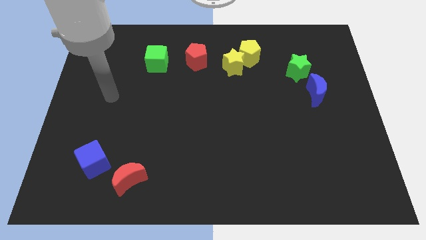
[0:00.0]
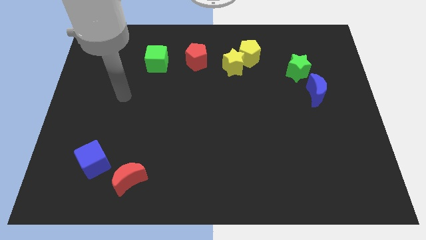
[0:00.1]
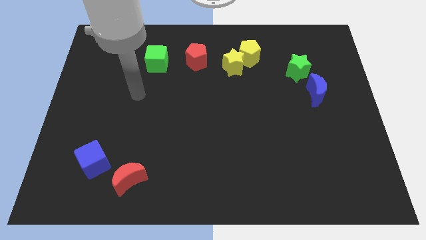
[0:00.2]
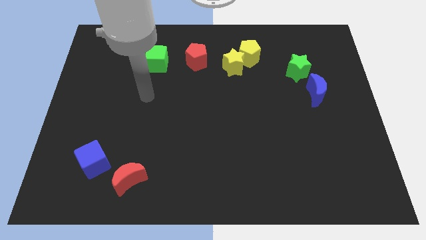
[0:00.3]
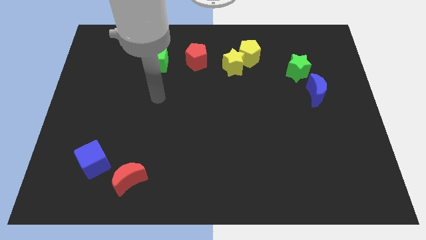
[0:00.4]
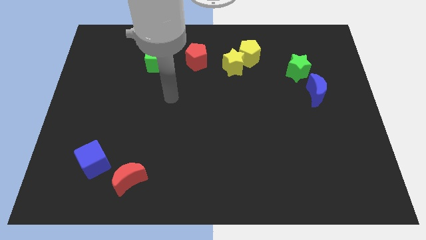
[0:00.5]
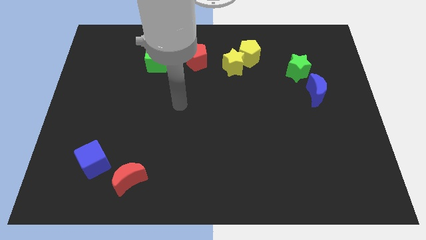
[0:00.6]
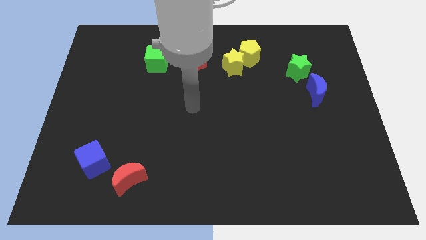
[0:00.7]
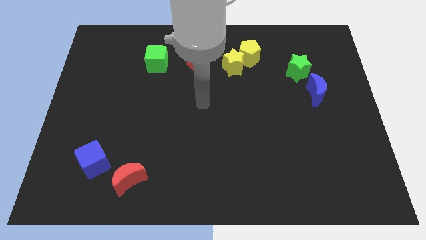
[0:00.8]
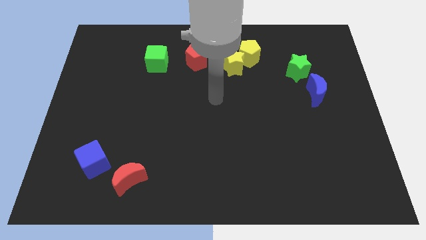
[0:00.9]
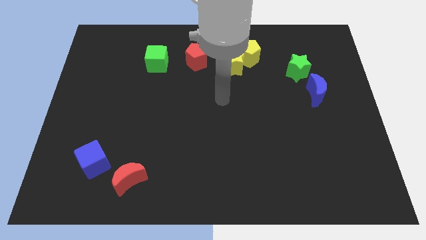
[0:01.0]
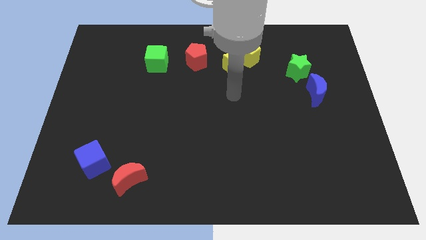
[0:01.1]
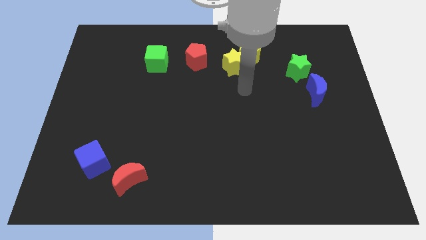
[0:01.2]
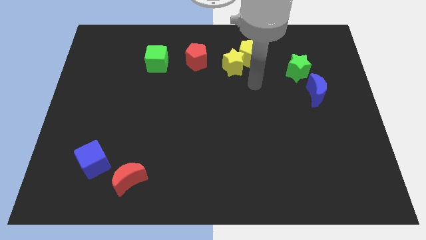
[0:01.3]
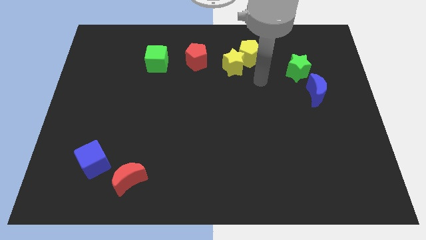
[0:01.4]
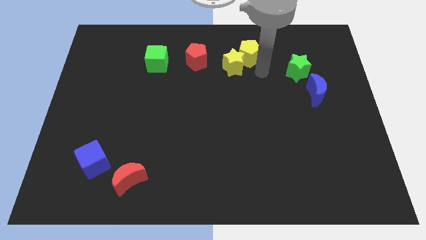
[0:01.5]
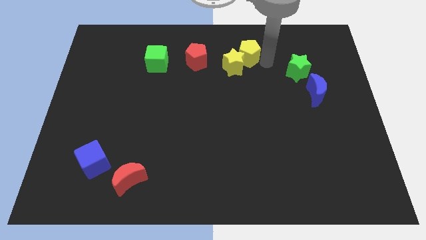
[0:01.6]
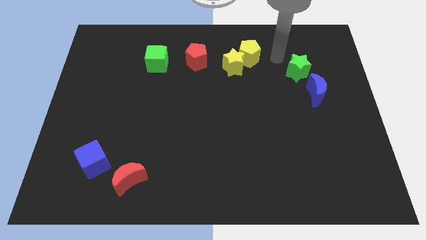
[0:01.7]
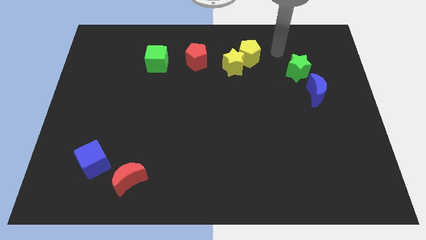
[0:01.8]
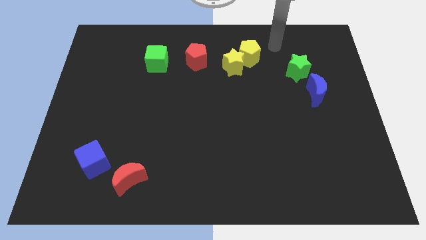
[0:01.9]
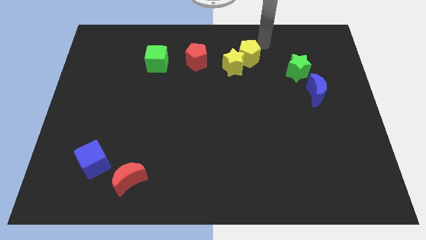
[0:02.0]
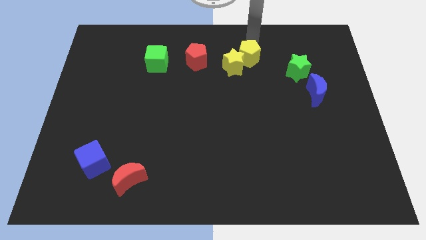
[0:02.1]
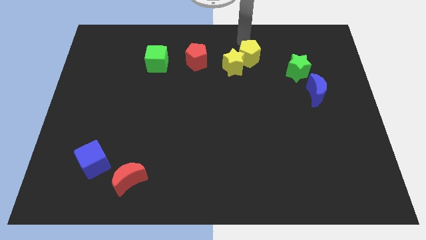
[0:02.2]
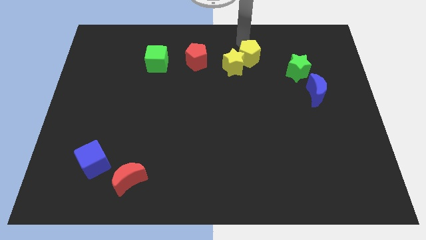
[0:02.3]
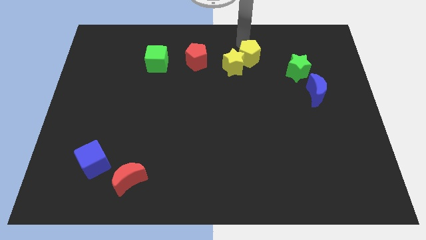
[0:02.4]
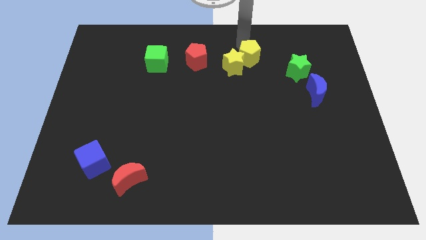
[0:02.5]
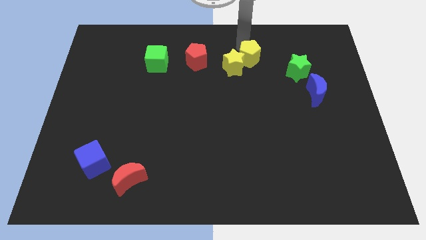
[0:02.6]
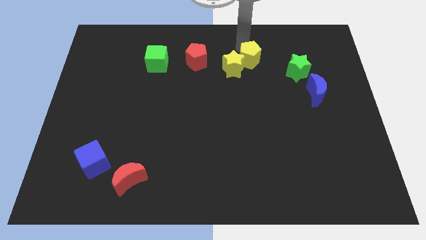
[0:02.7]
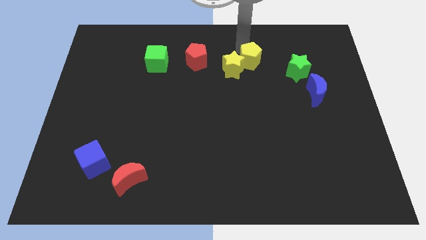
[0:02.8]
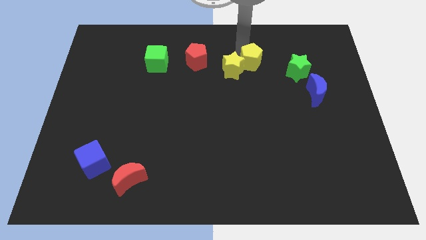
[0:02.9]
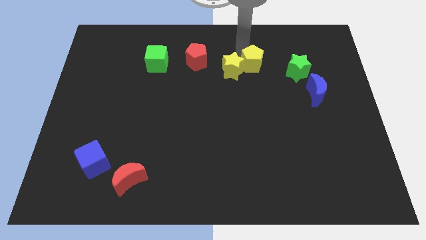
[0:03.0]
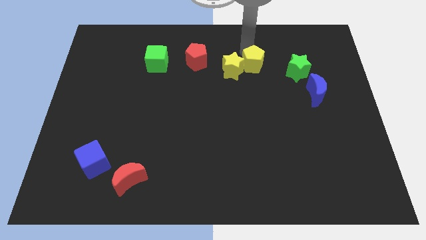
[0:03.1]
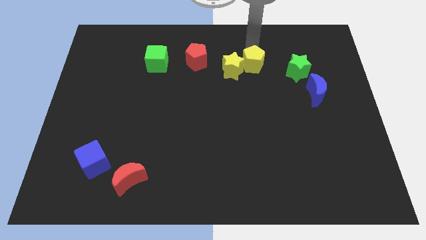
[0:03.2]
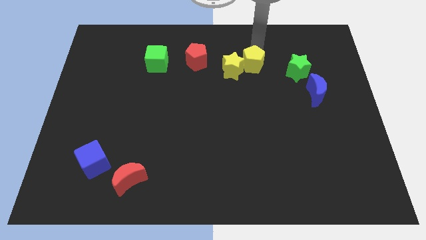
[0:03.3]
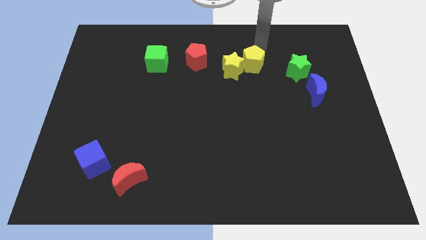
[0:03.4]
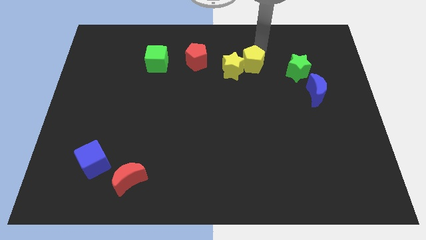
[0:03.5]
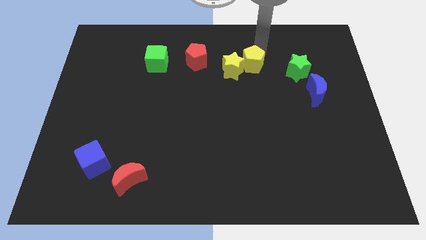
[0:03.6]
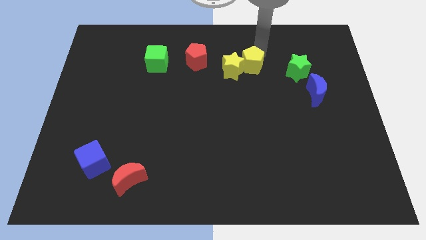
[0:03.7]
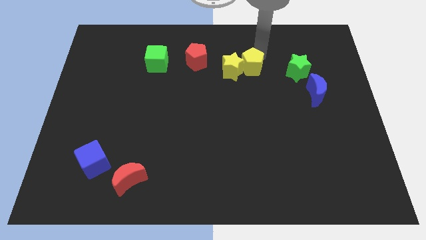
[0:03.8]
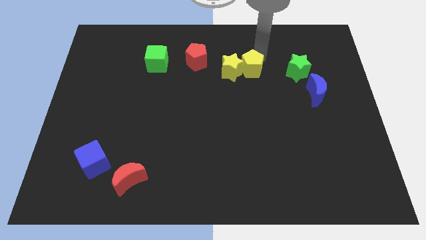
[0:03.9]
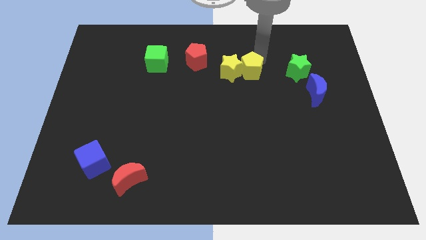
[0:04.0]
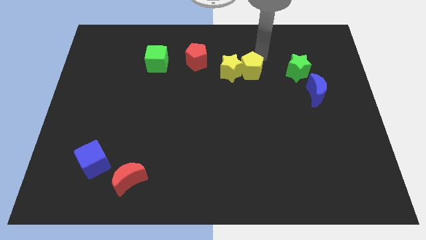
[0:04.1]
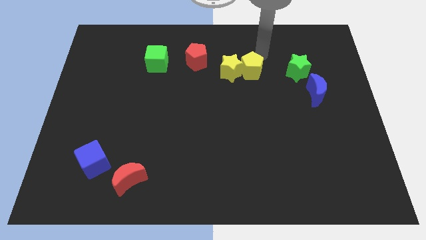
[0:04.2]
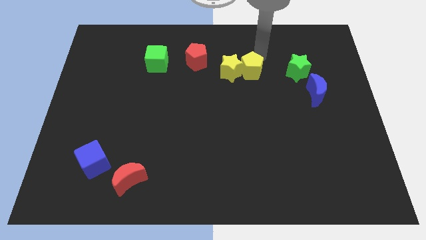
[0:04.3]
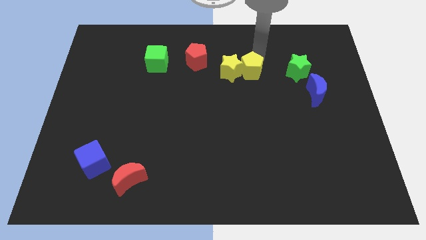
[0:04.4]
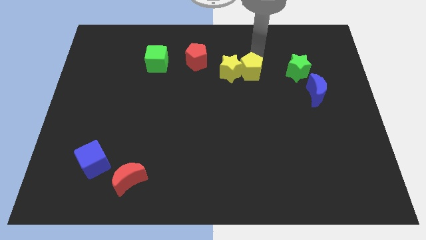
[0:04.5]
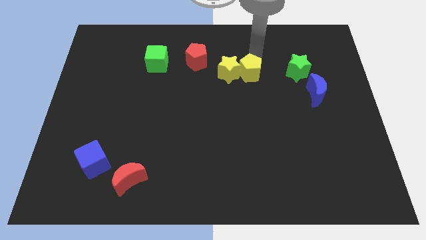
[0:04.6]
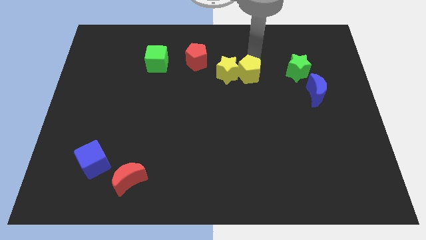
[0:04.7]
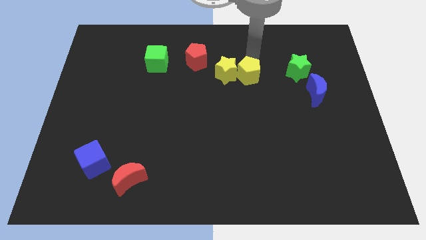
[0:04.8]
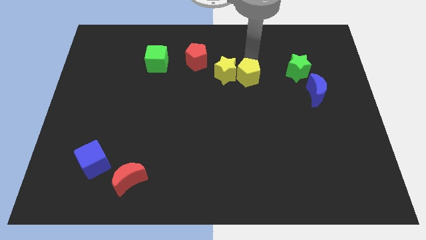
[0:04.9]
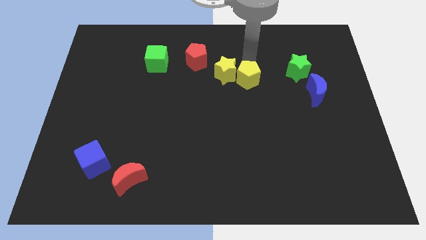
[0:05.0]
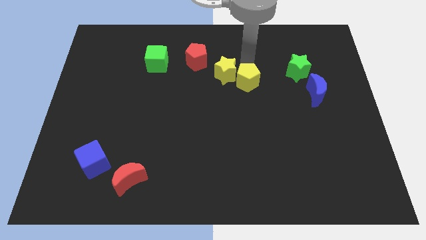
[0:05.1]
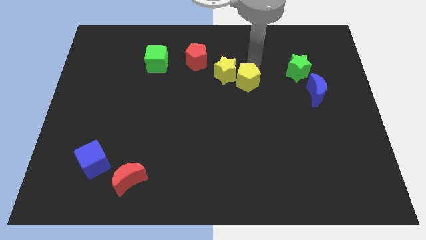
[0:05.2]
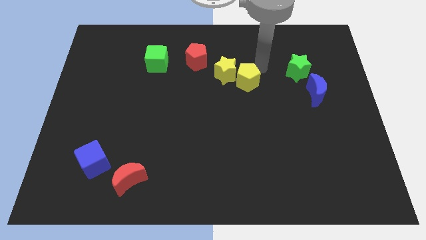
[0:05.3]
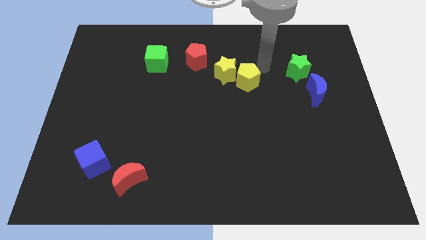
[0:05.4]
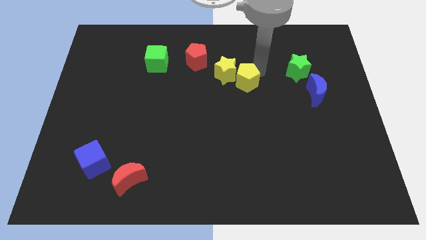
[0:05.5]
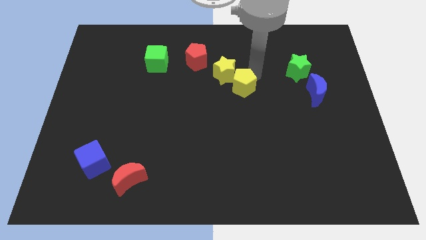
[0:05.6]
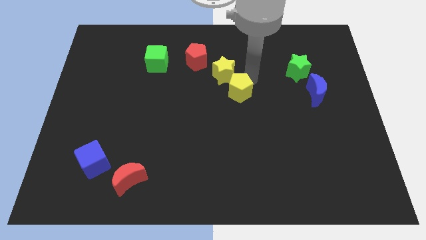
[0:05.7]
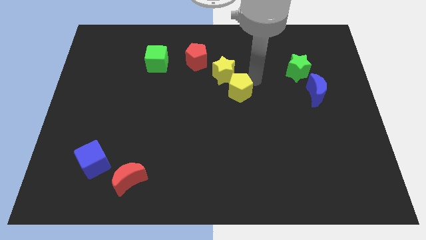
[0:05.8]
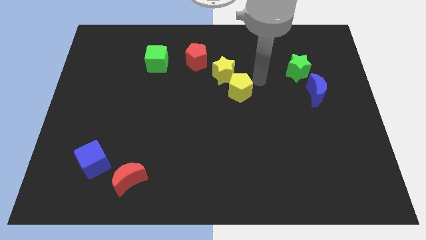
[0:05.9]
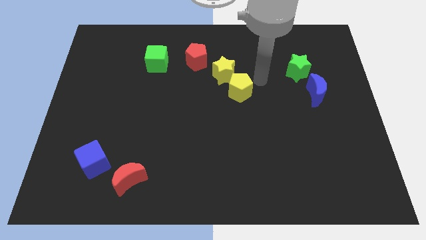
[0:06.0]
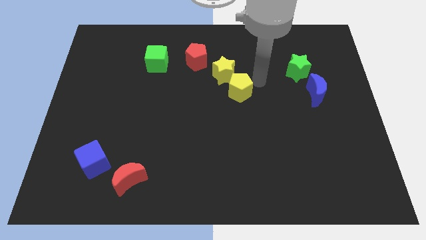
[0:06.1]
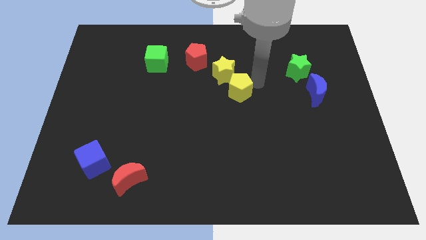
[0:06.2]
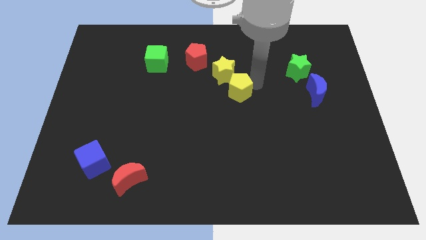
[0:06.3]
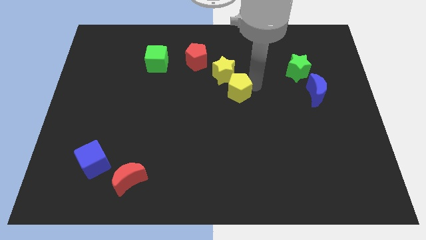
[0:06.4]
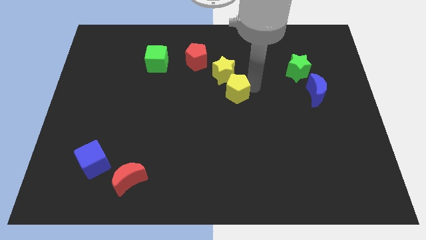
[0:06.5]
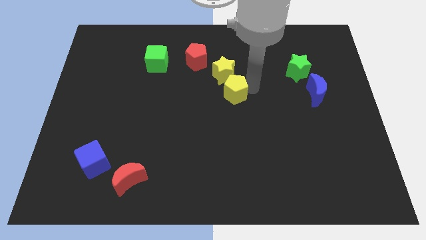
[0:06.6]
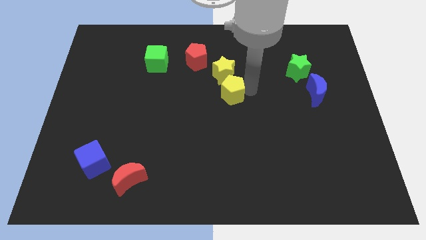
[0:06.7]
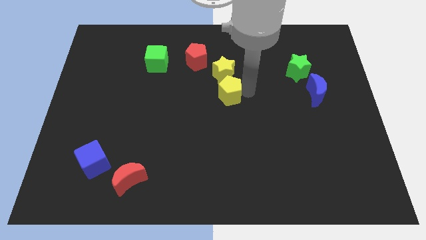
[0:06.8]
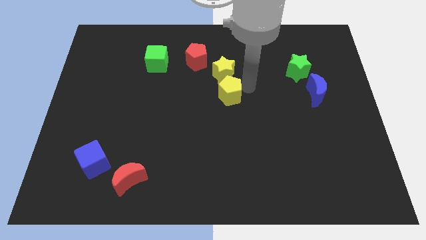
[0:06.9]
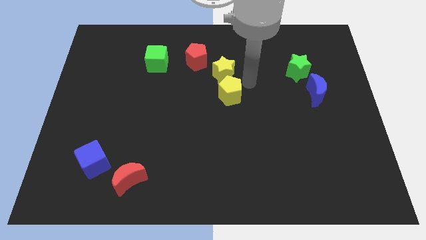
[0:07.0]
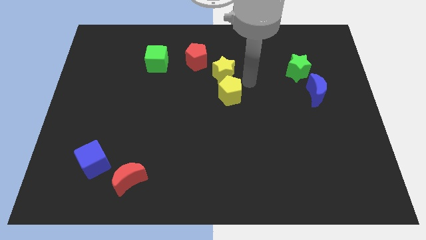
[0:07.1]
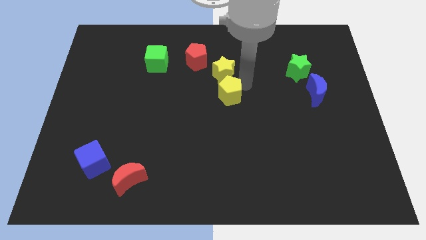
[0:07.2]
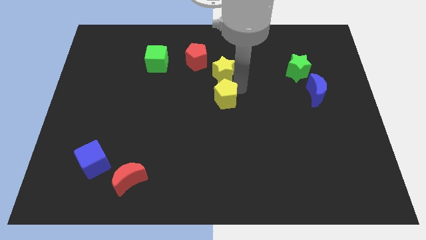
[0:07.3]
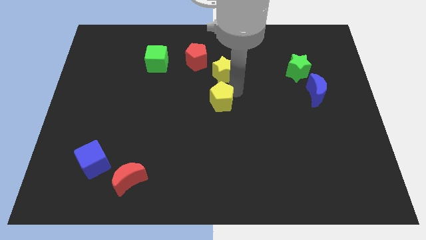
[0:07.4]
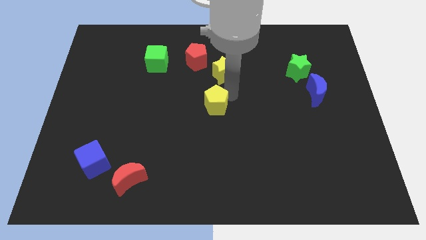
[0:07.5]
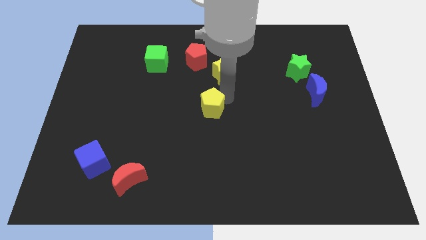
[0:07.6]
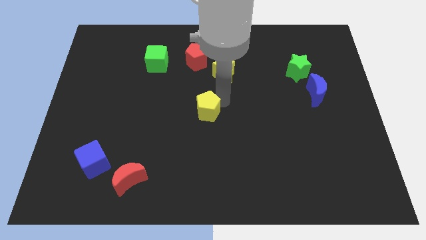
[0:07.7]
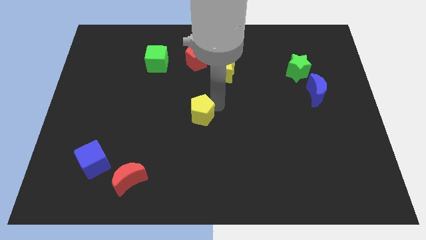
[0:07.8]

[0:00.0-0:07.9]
push the yellow pentagon downwards and then left
